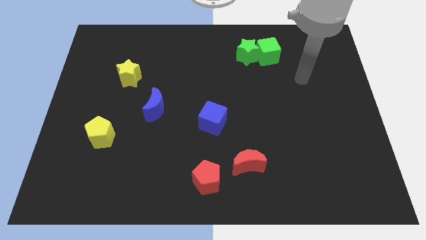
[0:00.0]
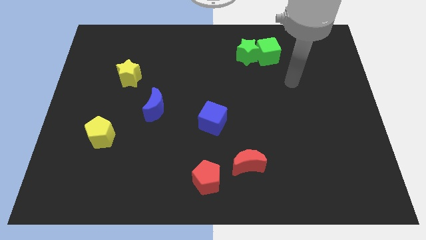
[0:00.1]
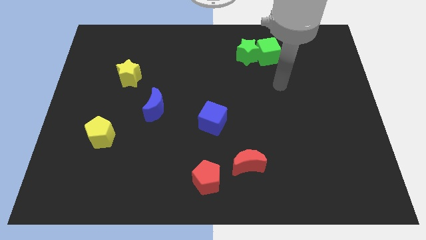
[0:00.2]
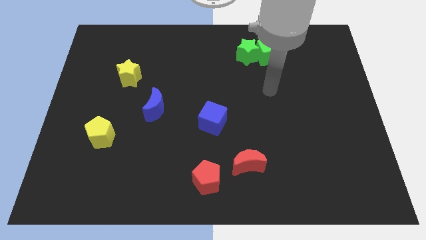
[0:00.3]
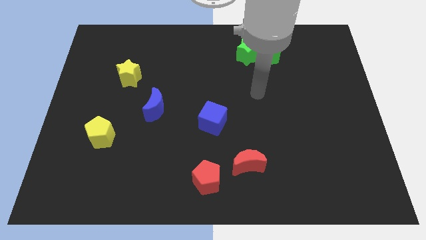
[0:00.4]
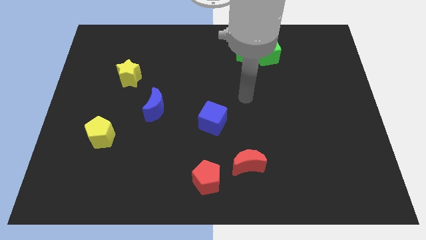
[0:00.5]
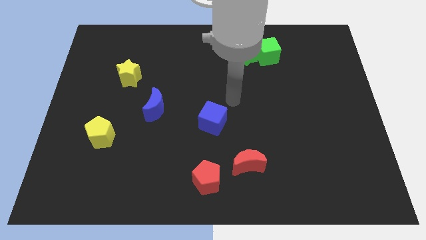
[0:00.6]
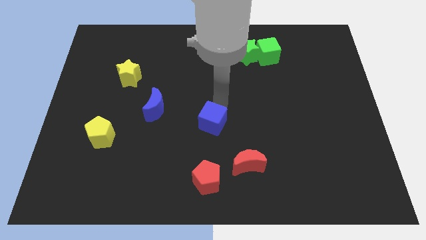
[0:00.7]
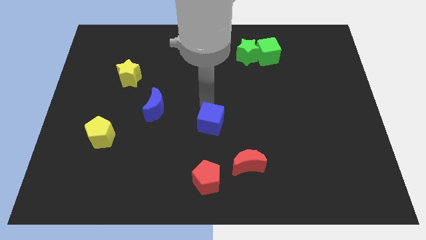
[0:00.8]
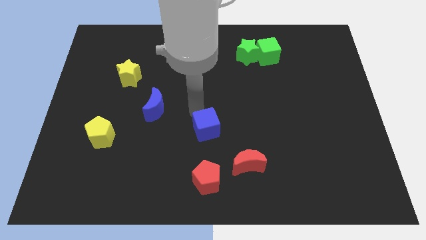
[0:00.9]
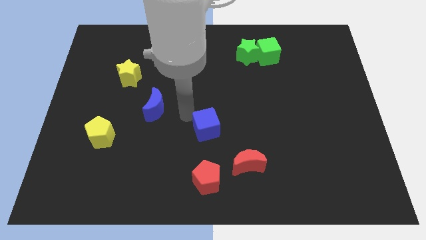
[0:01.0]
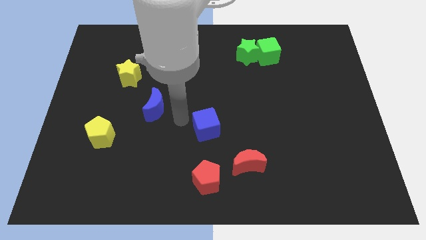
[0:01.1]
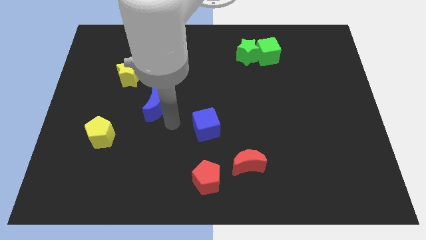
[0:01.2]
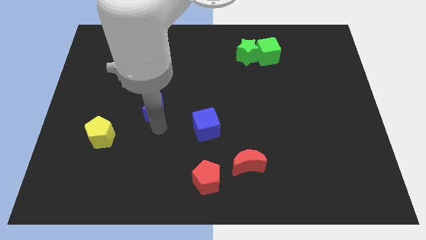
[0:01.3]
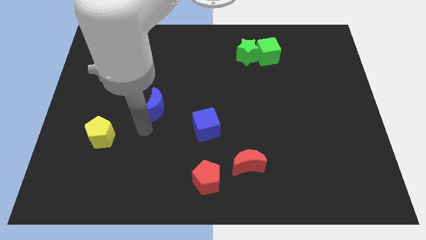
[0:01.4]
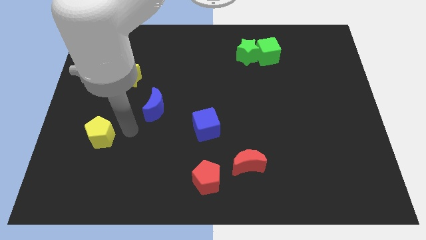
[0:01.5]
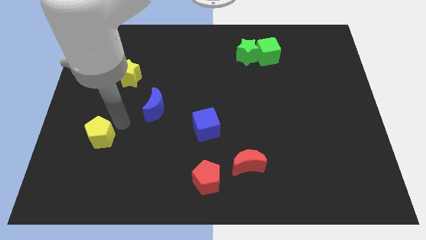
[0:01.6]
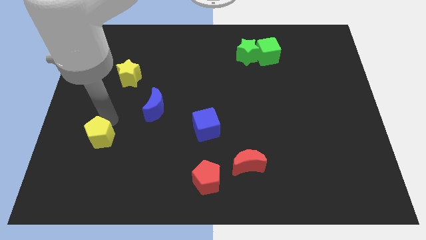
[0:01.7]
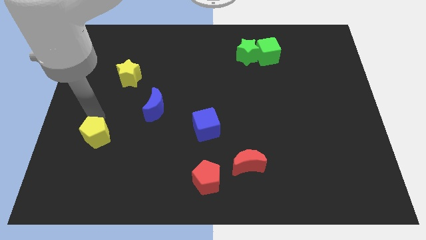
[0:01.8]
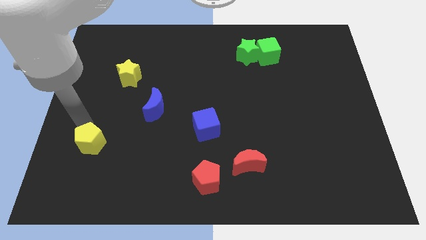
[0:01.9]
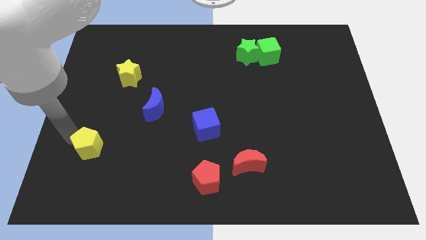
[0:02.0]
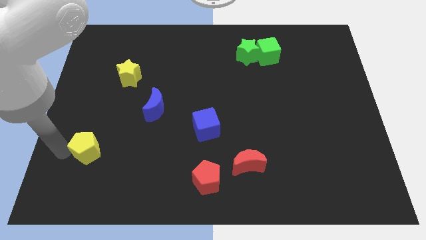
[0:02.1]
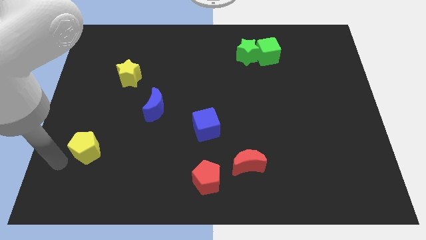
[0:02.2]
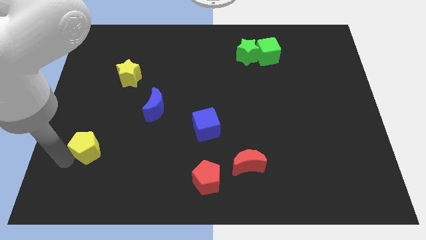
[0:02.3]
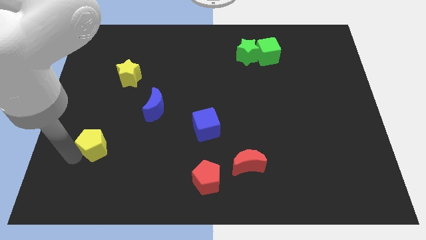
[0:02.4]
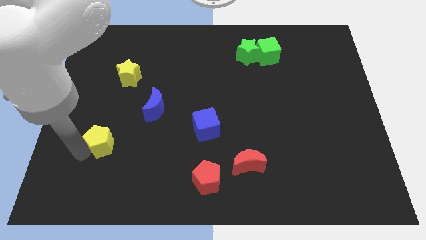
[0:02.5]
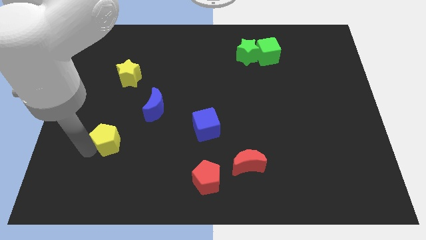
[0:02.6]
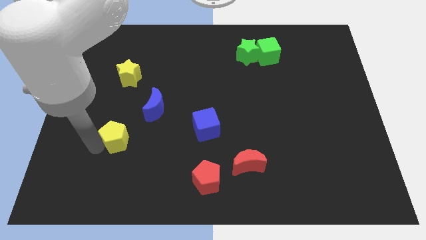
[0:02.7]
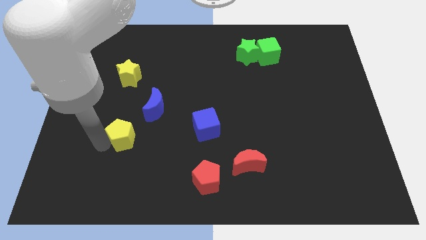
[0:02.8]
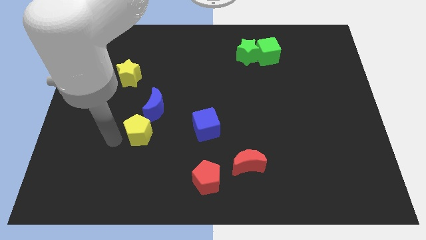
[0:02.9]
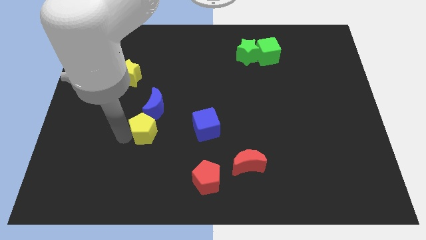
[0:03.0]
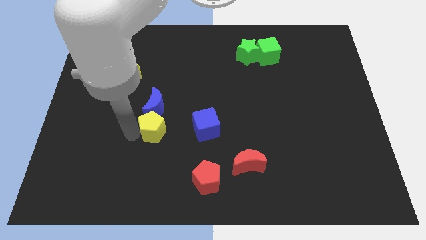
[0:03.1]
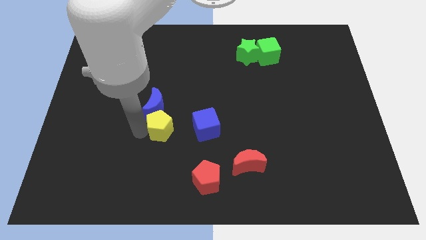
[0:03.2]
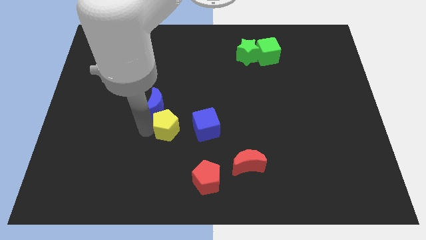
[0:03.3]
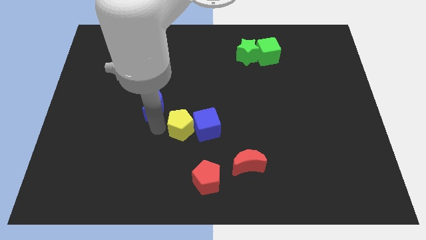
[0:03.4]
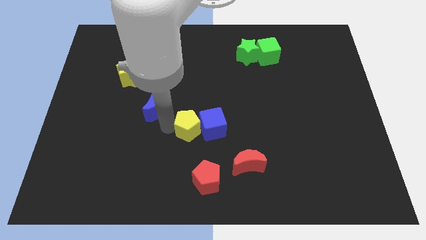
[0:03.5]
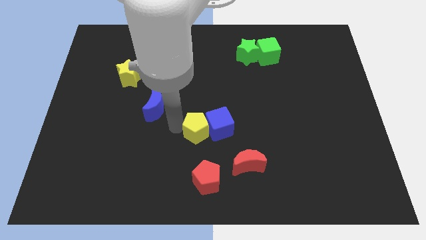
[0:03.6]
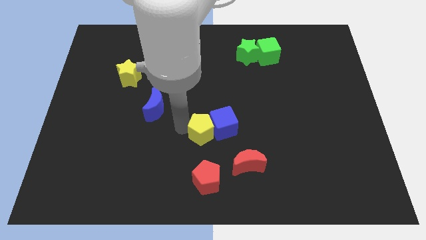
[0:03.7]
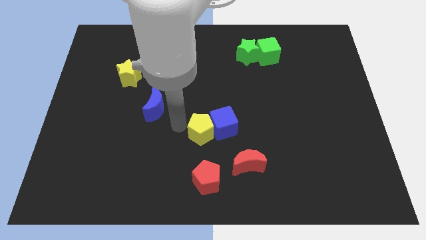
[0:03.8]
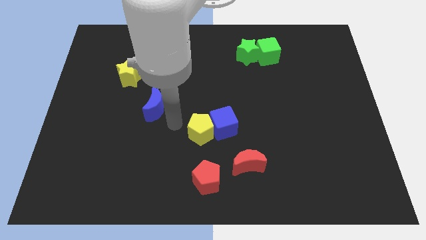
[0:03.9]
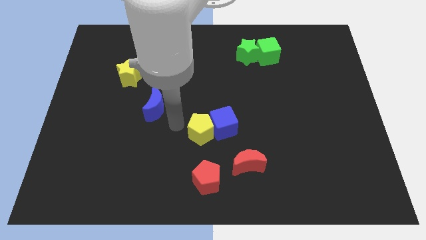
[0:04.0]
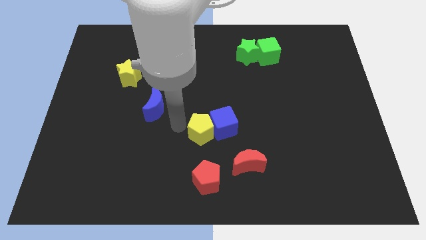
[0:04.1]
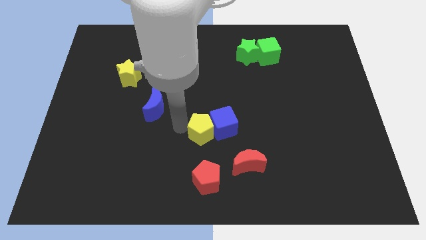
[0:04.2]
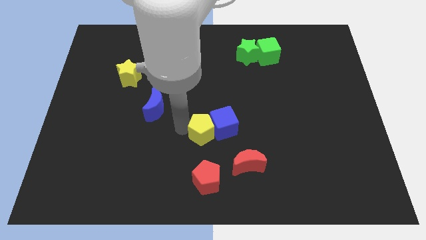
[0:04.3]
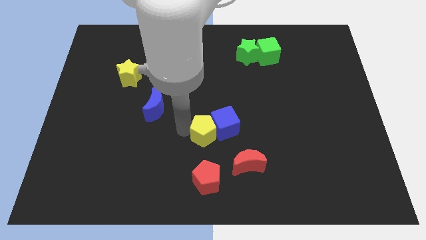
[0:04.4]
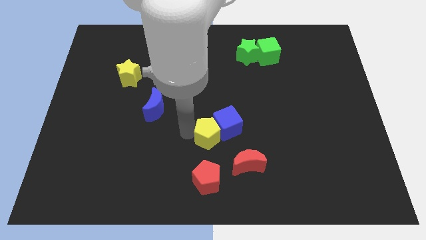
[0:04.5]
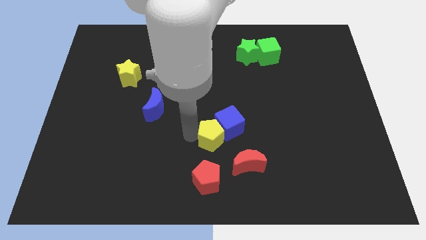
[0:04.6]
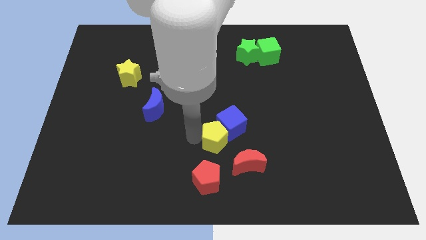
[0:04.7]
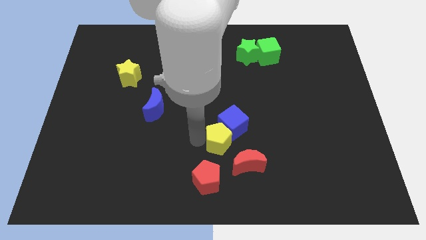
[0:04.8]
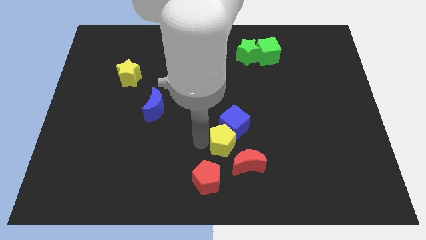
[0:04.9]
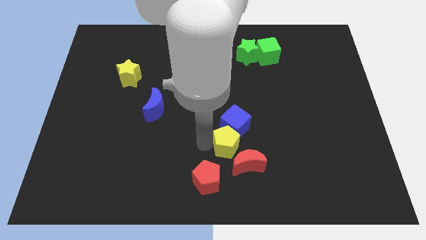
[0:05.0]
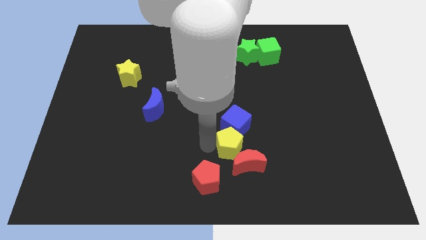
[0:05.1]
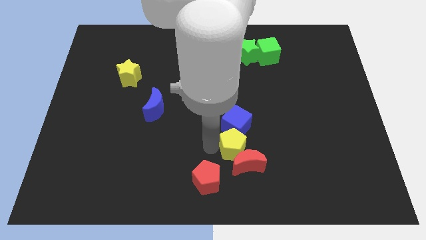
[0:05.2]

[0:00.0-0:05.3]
move the yellow pentagon to the bottom right of the blue cube

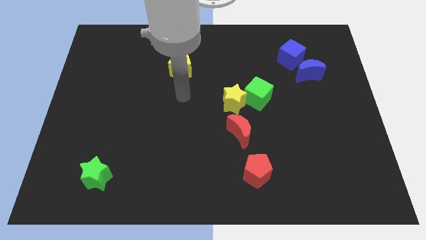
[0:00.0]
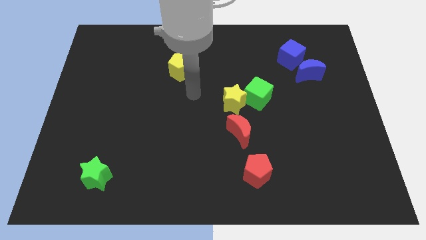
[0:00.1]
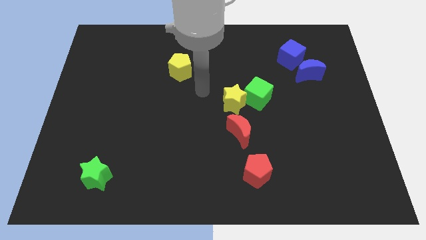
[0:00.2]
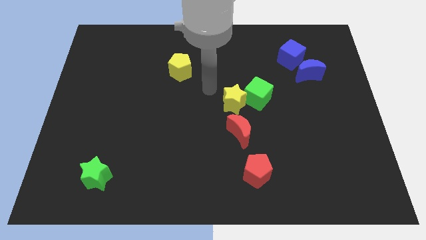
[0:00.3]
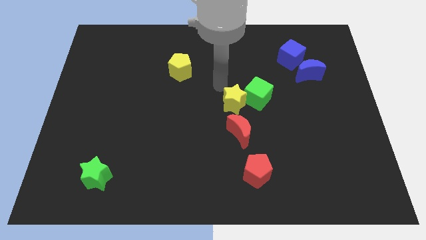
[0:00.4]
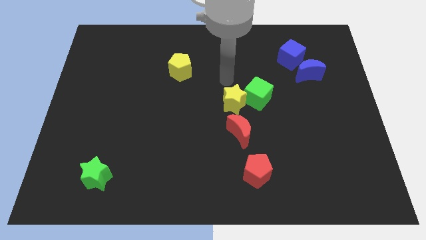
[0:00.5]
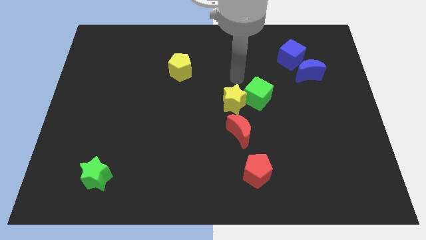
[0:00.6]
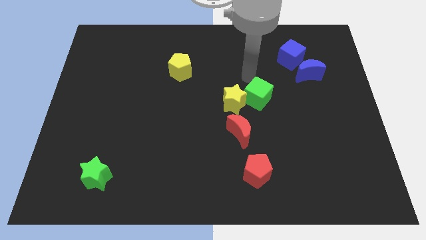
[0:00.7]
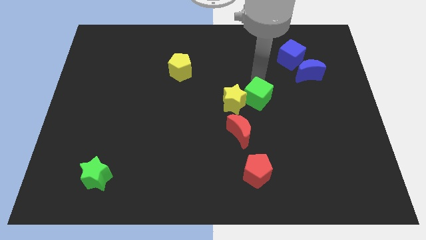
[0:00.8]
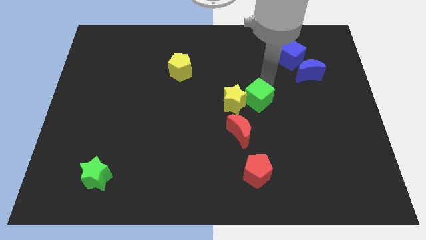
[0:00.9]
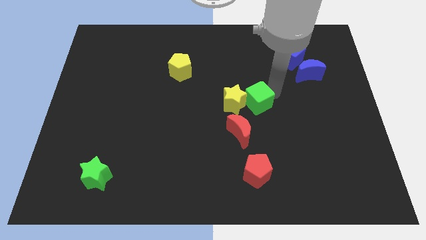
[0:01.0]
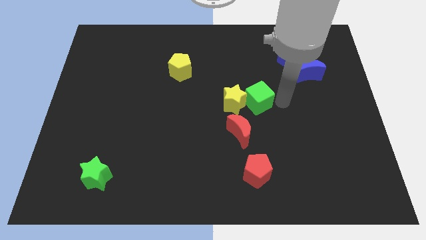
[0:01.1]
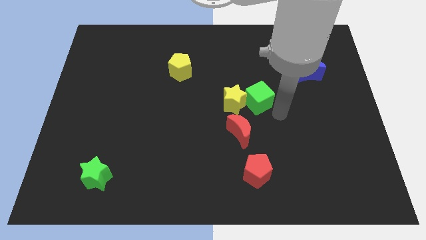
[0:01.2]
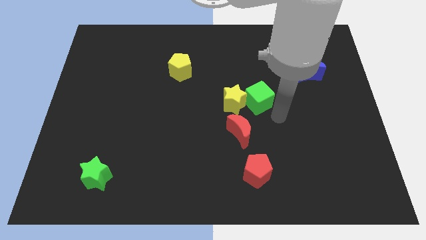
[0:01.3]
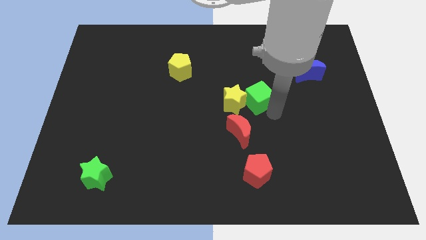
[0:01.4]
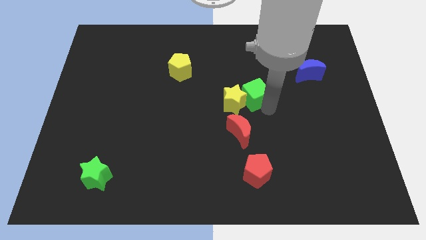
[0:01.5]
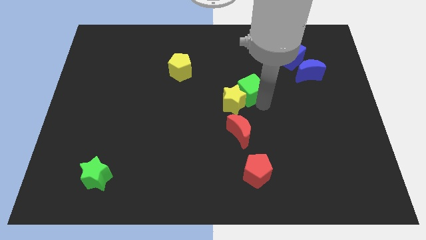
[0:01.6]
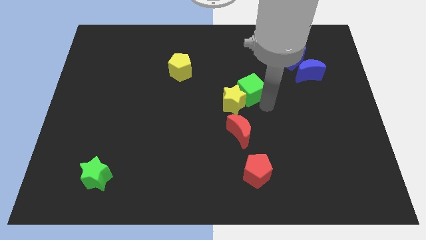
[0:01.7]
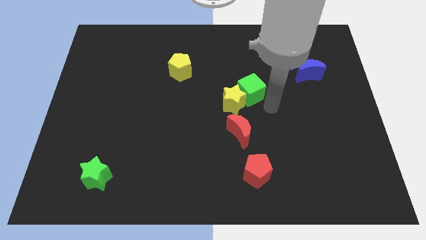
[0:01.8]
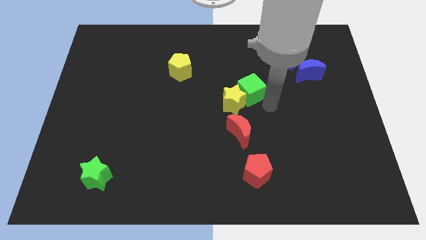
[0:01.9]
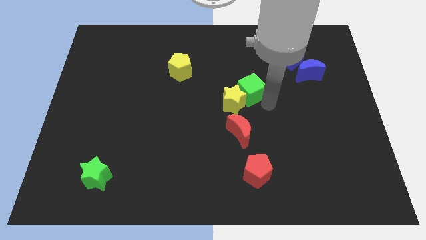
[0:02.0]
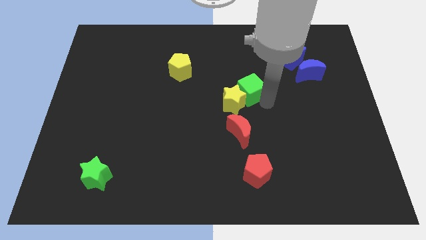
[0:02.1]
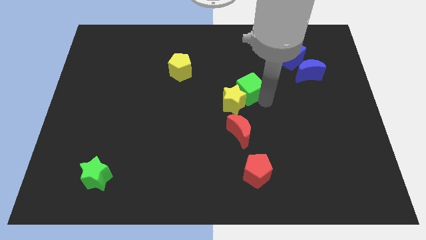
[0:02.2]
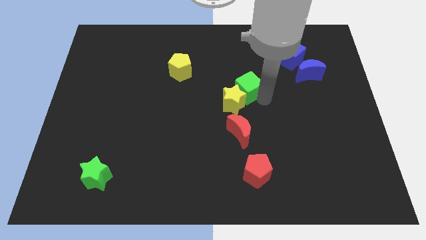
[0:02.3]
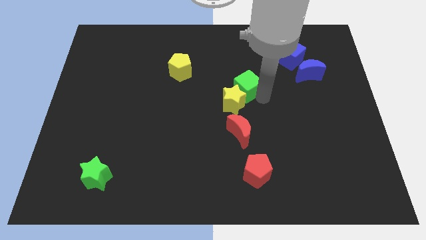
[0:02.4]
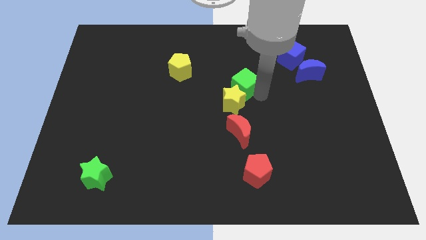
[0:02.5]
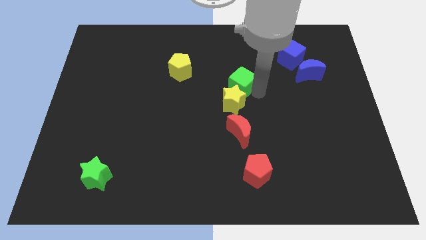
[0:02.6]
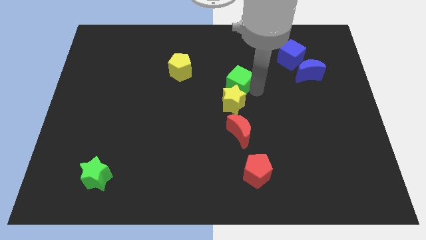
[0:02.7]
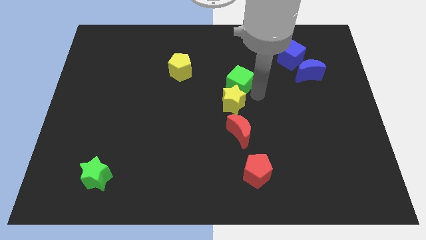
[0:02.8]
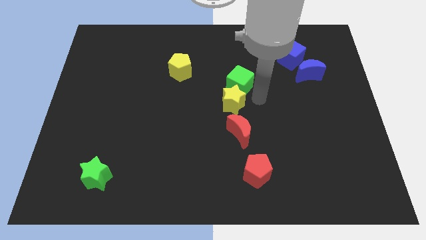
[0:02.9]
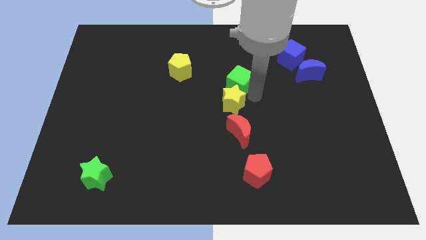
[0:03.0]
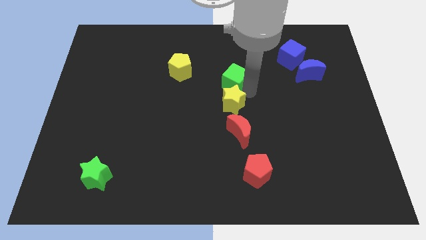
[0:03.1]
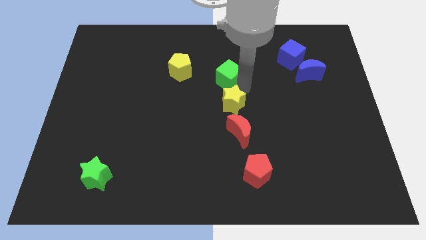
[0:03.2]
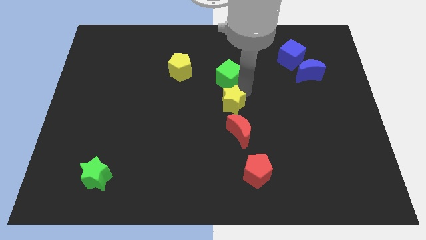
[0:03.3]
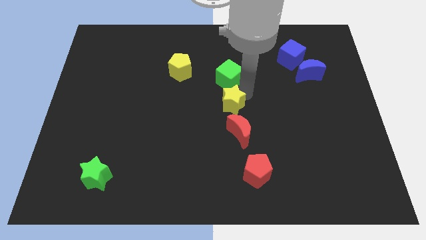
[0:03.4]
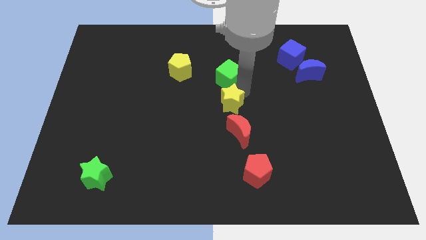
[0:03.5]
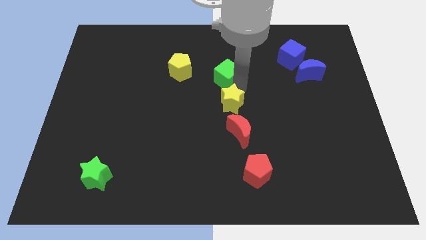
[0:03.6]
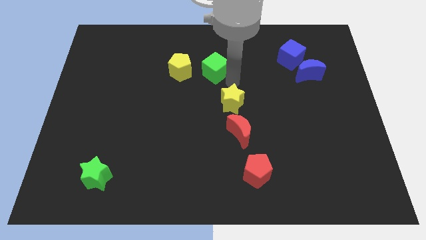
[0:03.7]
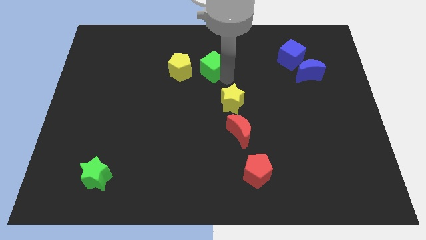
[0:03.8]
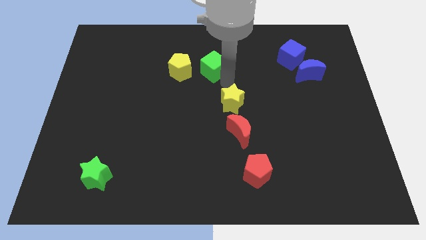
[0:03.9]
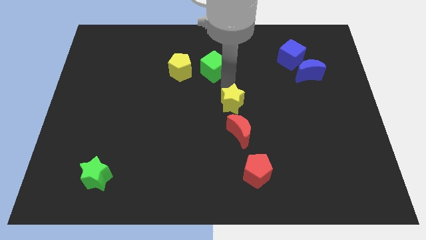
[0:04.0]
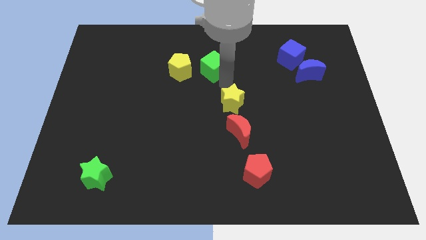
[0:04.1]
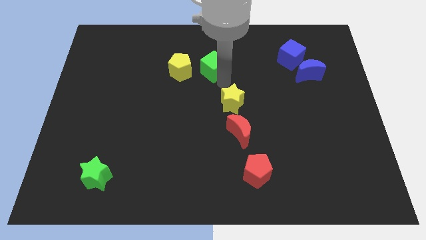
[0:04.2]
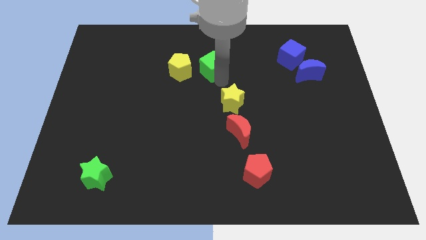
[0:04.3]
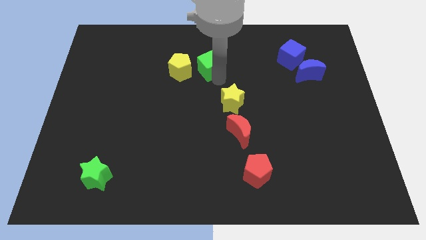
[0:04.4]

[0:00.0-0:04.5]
move the green cube diagonally up and to the right of the yellow pentagon
